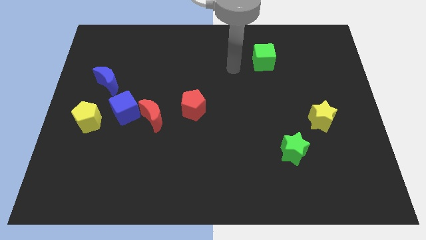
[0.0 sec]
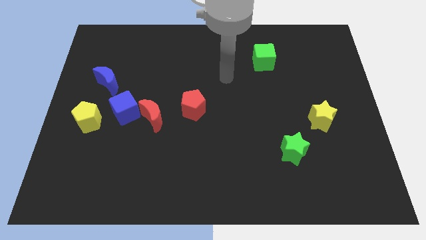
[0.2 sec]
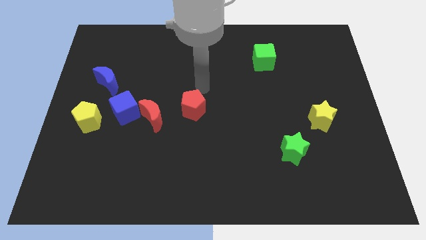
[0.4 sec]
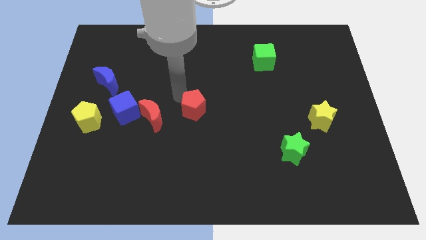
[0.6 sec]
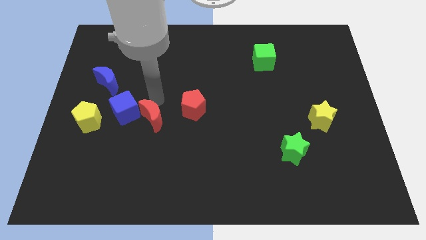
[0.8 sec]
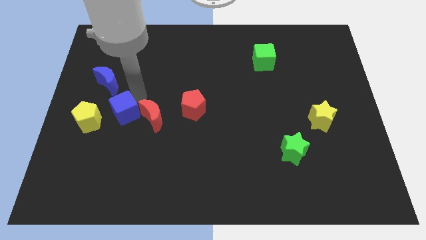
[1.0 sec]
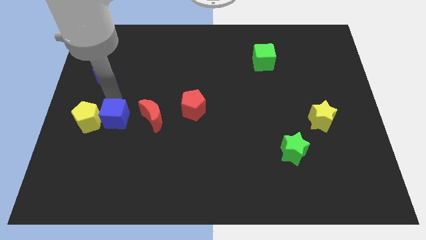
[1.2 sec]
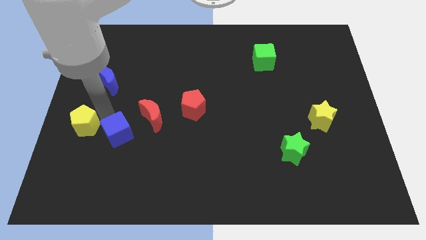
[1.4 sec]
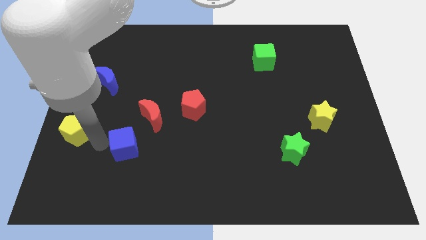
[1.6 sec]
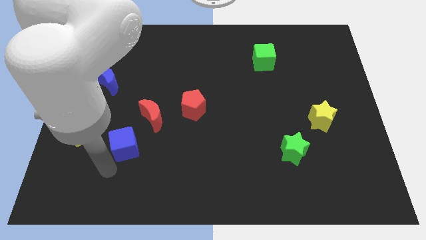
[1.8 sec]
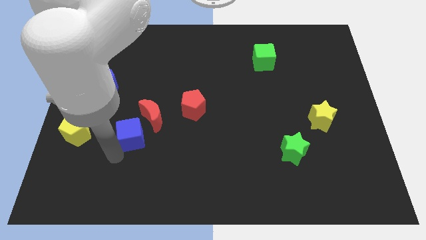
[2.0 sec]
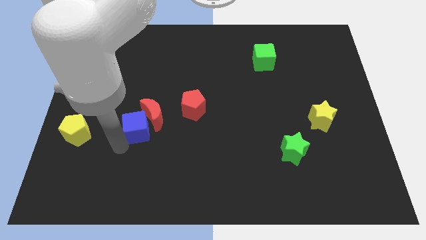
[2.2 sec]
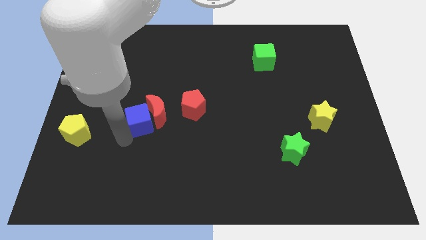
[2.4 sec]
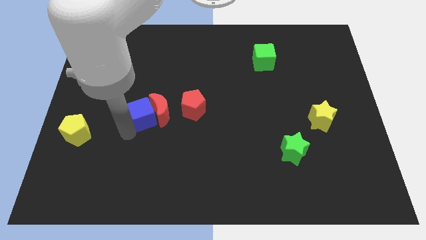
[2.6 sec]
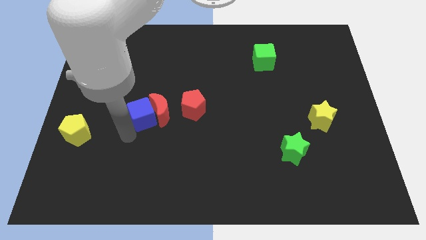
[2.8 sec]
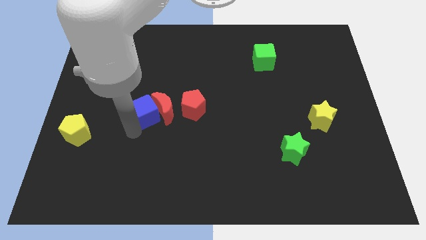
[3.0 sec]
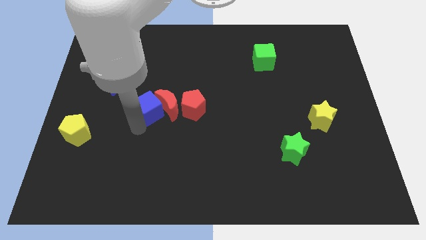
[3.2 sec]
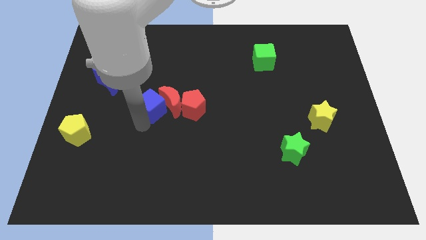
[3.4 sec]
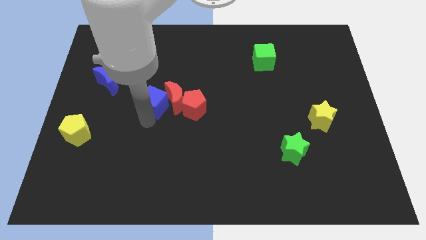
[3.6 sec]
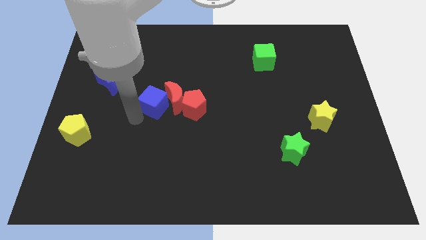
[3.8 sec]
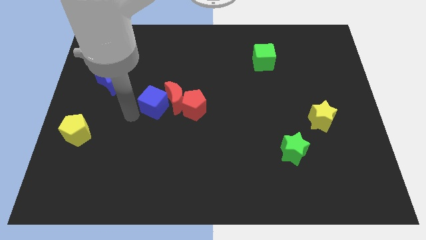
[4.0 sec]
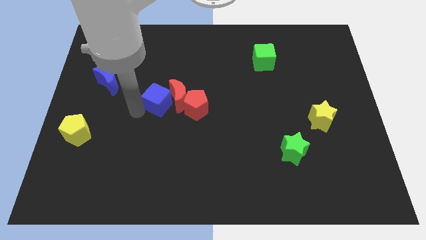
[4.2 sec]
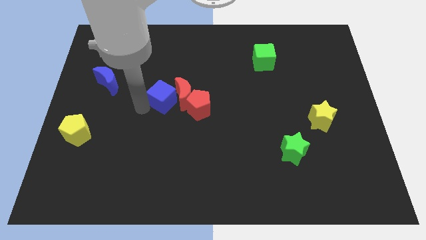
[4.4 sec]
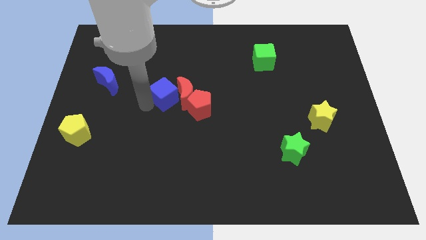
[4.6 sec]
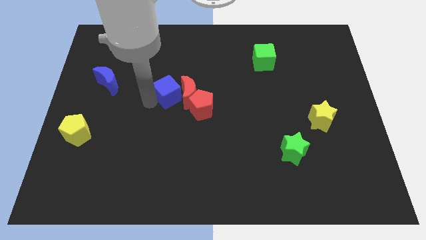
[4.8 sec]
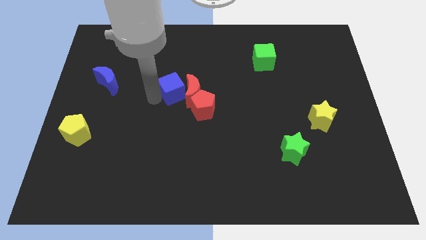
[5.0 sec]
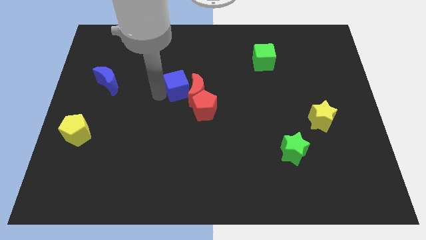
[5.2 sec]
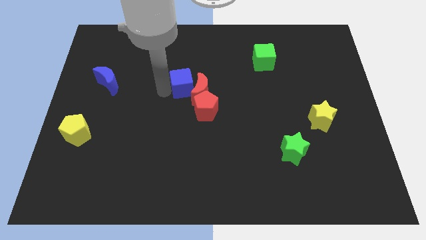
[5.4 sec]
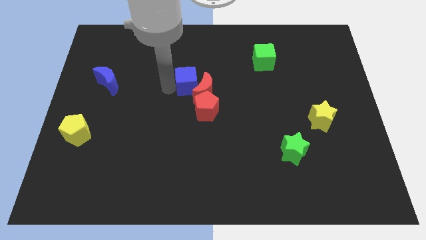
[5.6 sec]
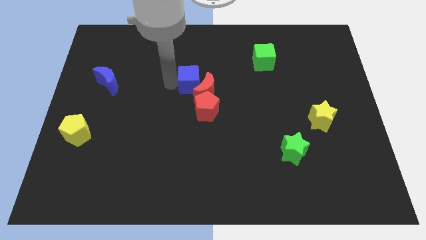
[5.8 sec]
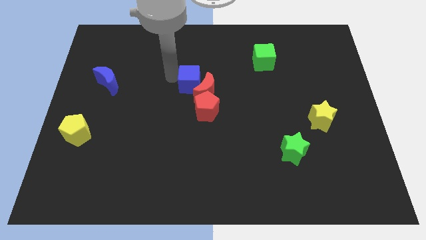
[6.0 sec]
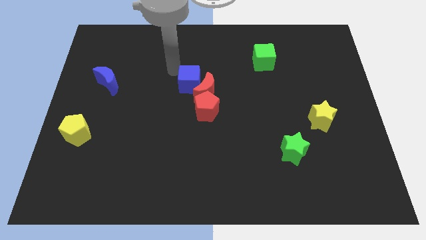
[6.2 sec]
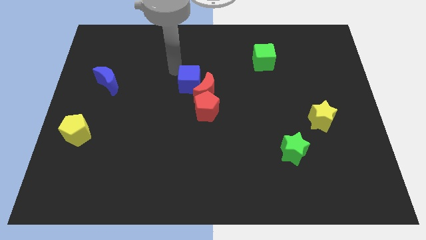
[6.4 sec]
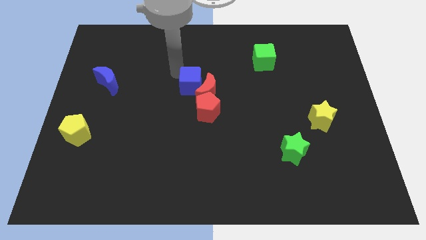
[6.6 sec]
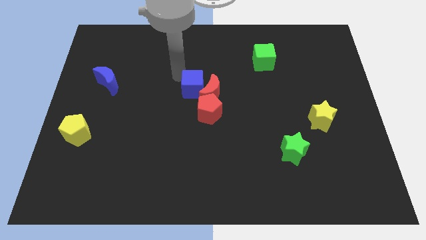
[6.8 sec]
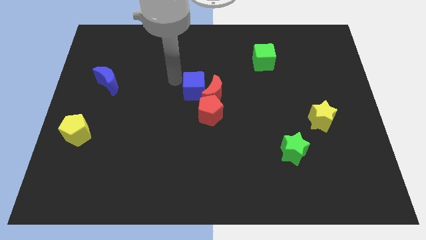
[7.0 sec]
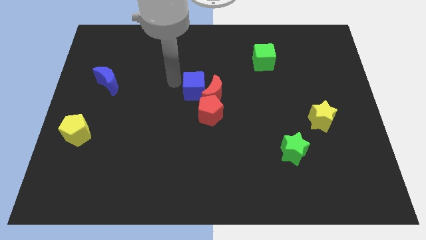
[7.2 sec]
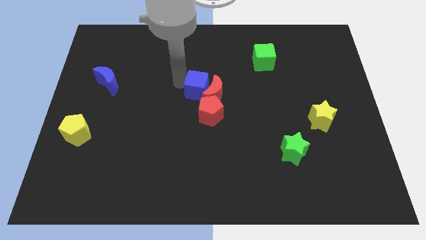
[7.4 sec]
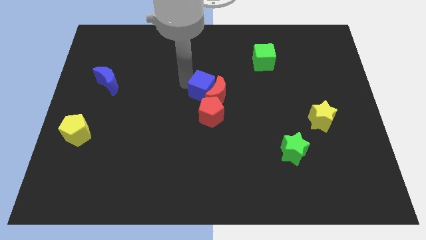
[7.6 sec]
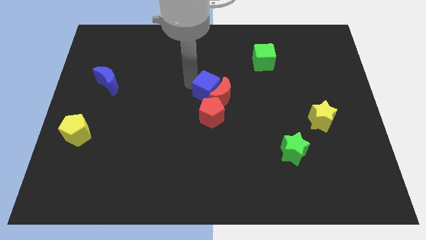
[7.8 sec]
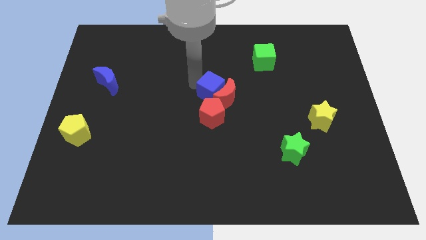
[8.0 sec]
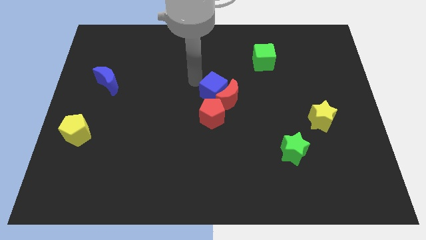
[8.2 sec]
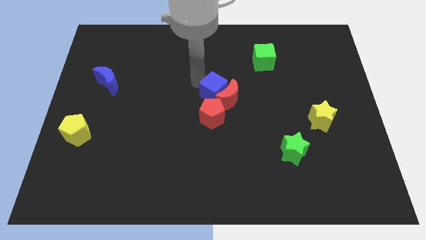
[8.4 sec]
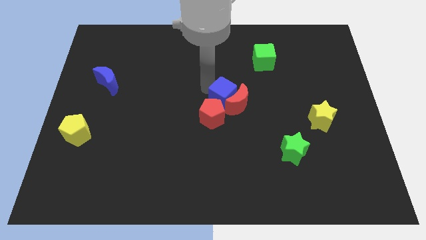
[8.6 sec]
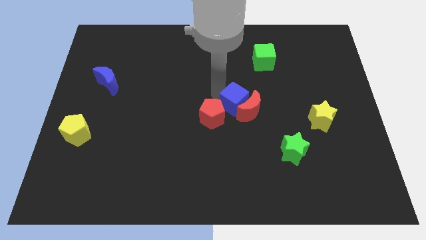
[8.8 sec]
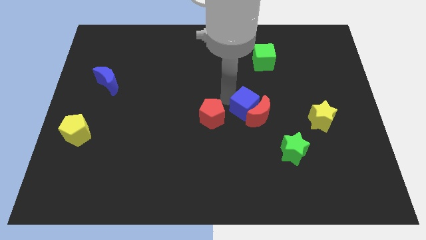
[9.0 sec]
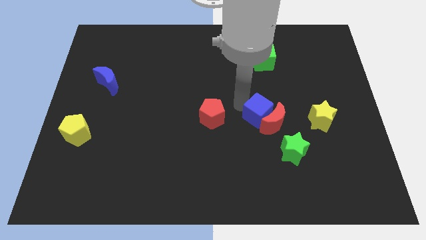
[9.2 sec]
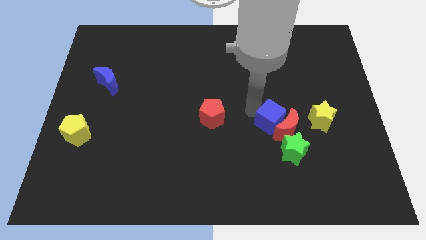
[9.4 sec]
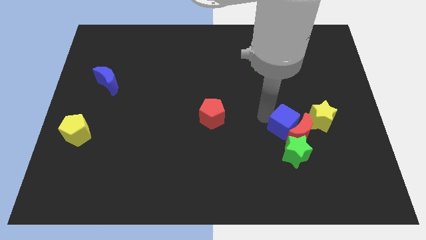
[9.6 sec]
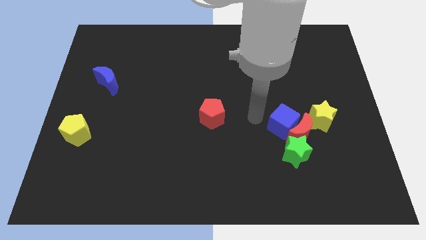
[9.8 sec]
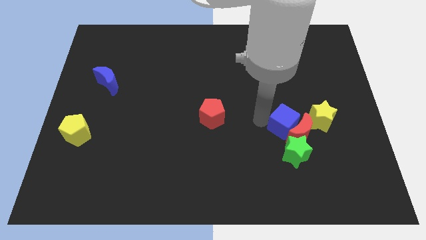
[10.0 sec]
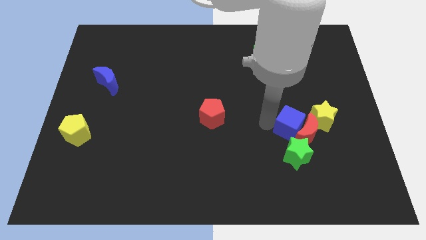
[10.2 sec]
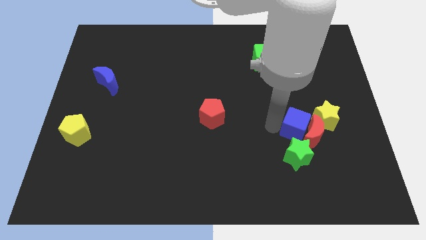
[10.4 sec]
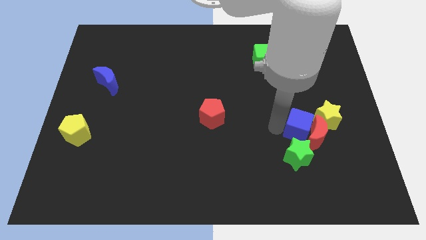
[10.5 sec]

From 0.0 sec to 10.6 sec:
push the blue cube to the top right of the green star

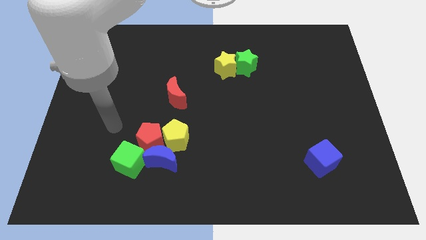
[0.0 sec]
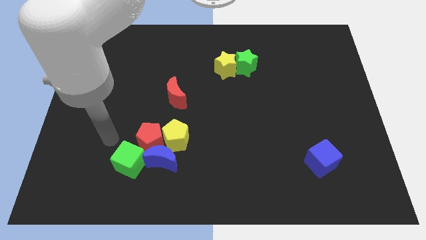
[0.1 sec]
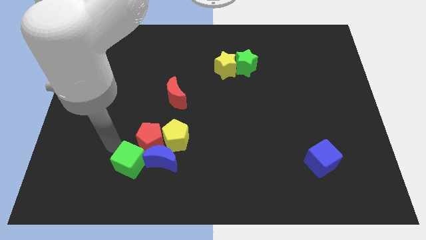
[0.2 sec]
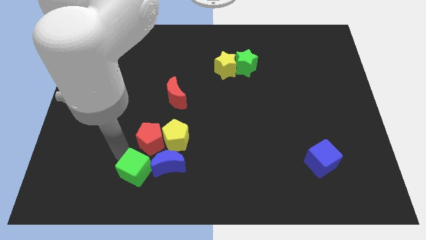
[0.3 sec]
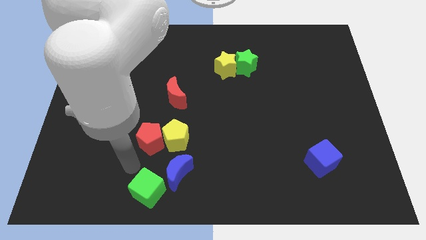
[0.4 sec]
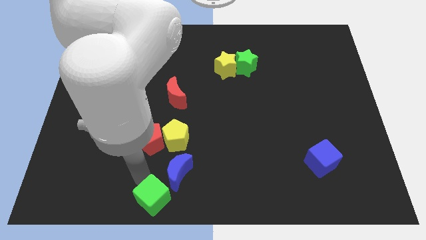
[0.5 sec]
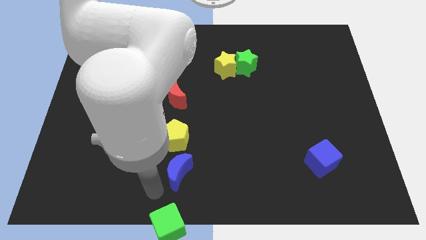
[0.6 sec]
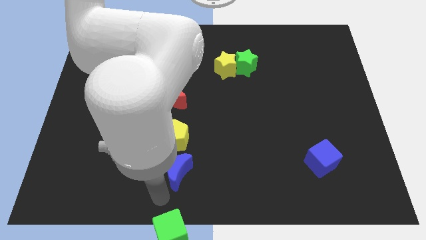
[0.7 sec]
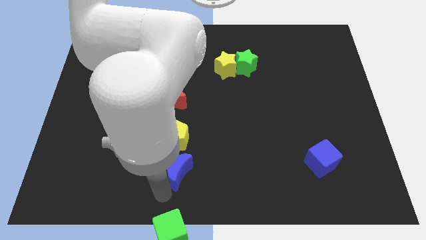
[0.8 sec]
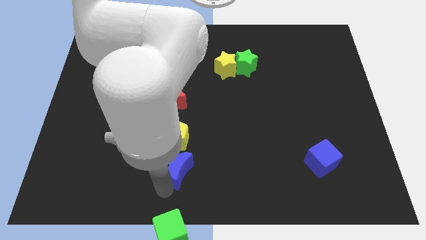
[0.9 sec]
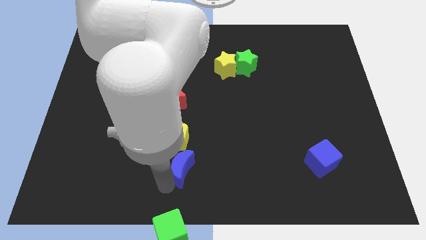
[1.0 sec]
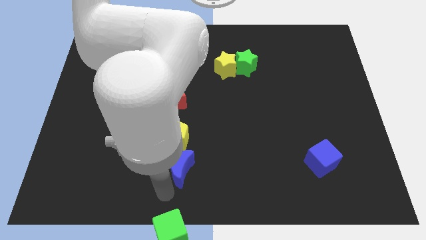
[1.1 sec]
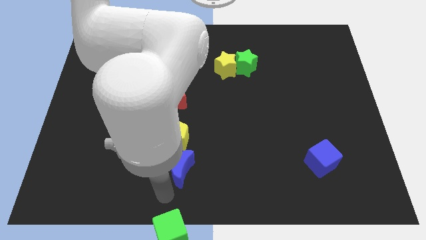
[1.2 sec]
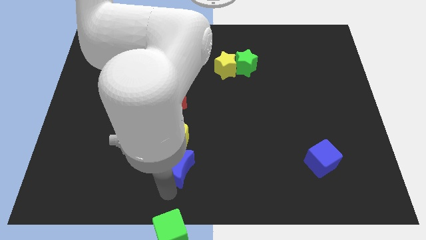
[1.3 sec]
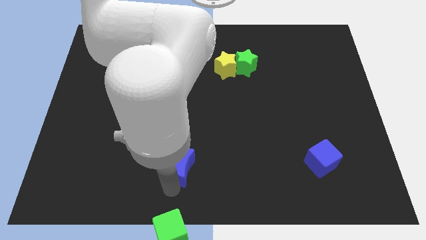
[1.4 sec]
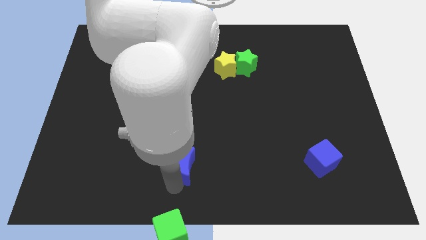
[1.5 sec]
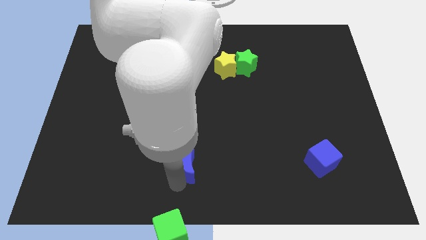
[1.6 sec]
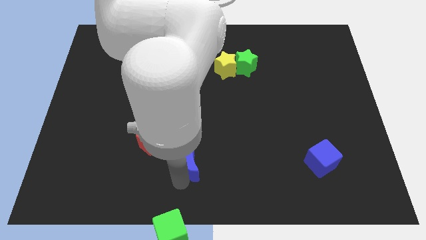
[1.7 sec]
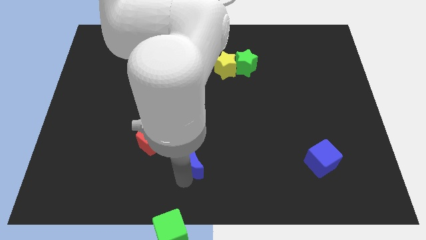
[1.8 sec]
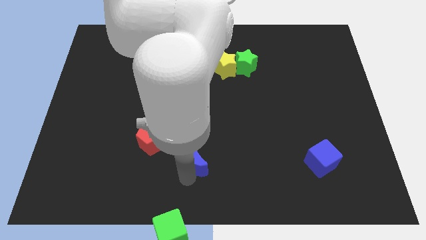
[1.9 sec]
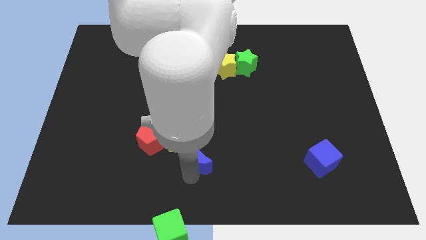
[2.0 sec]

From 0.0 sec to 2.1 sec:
slide the blue moon to the right of the red pentagon

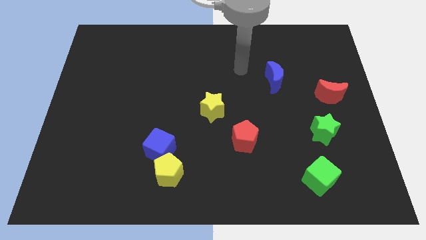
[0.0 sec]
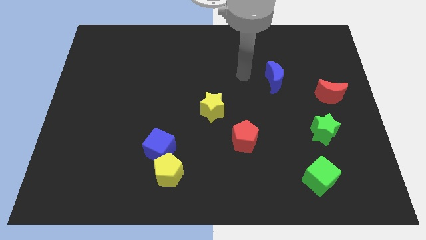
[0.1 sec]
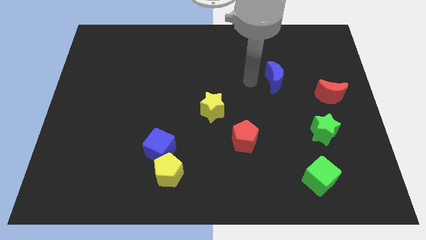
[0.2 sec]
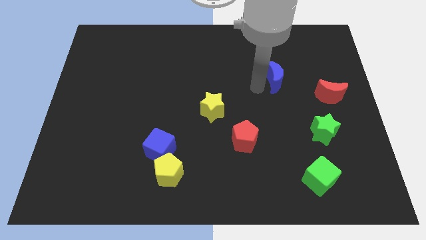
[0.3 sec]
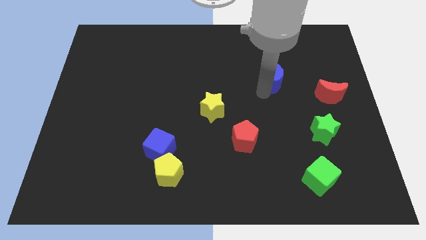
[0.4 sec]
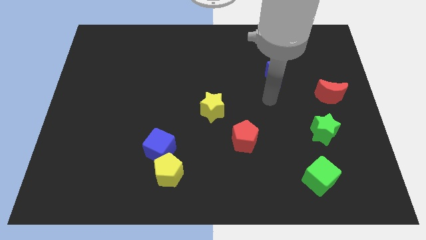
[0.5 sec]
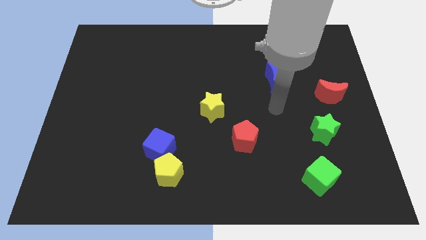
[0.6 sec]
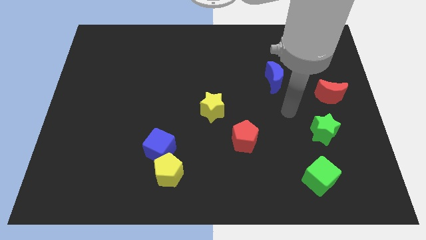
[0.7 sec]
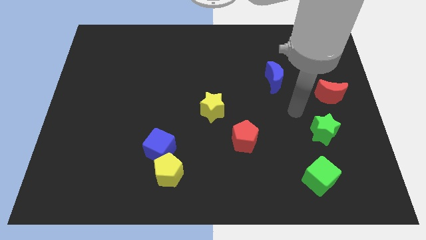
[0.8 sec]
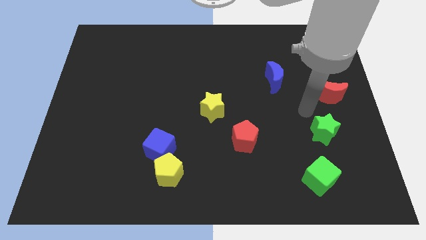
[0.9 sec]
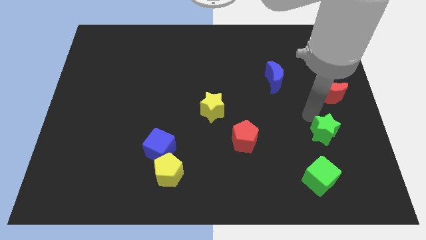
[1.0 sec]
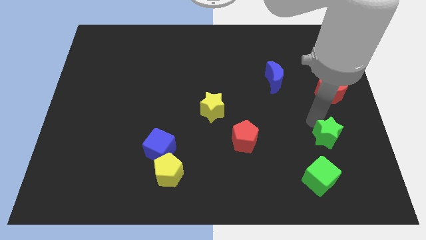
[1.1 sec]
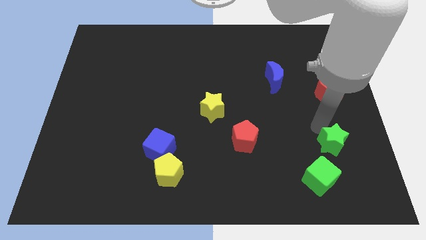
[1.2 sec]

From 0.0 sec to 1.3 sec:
move the green star to the top right of the green cube
